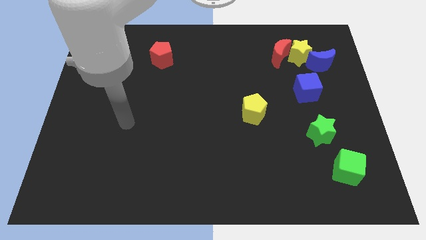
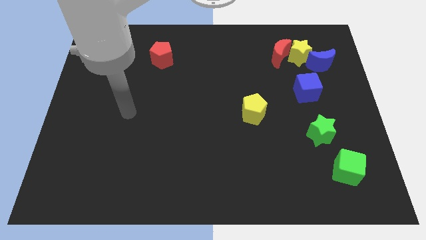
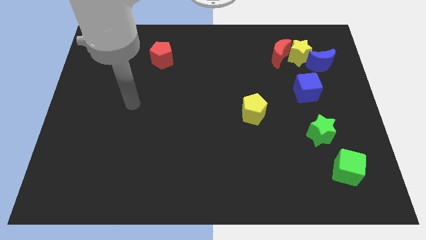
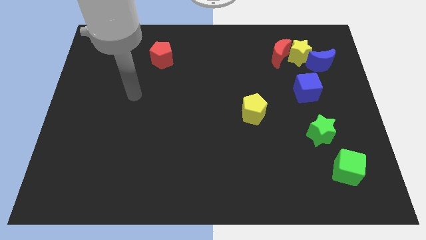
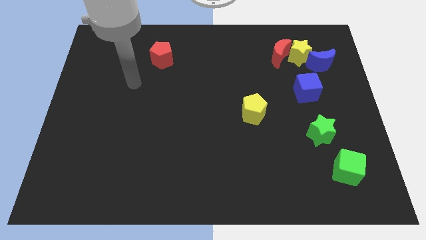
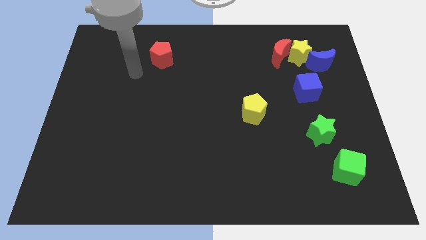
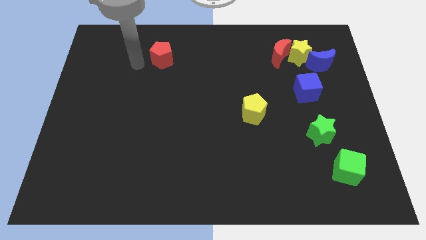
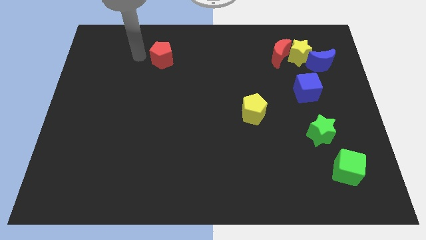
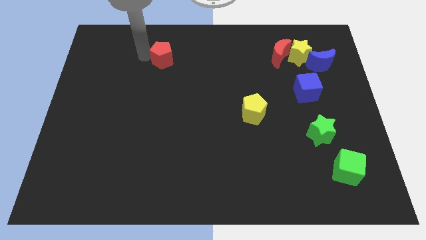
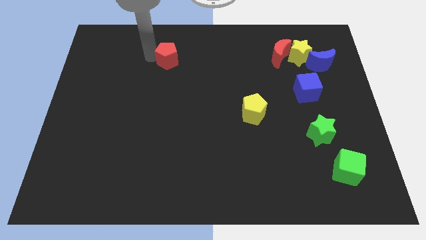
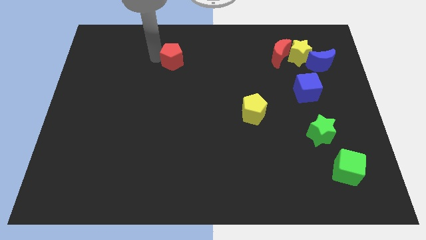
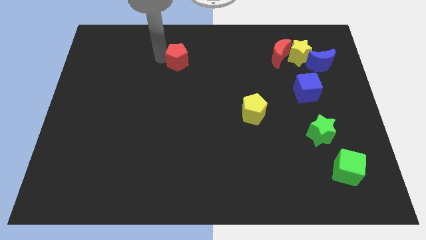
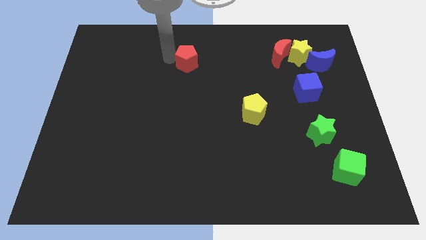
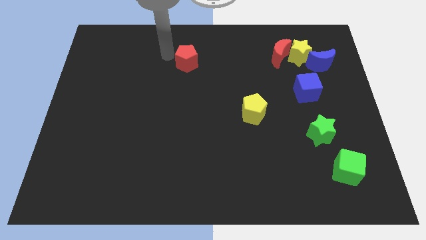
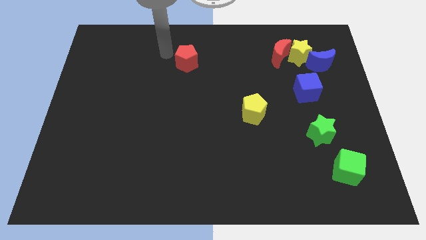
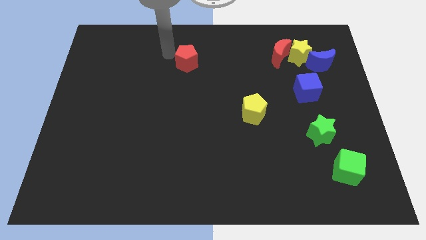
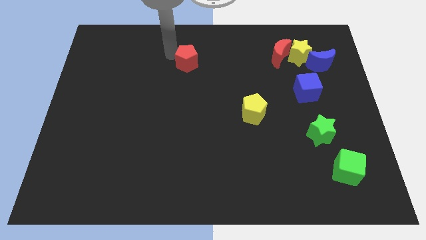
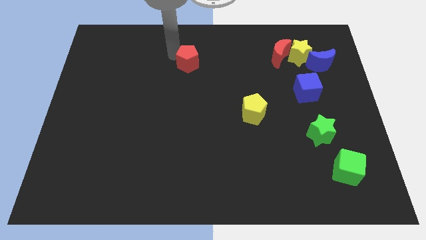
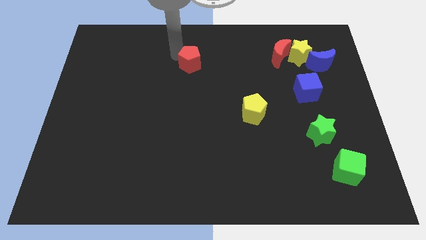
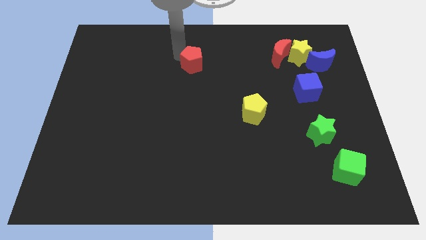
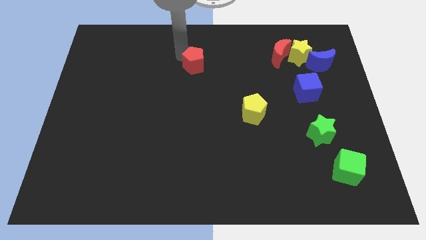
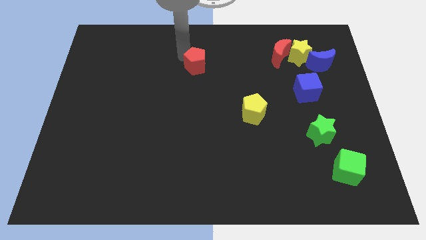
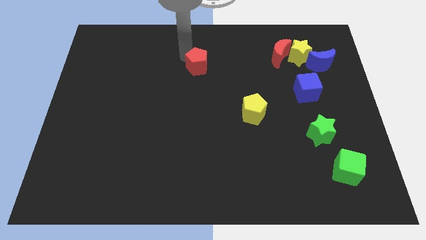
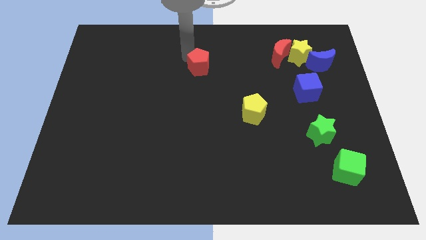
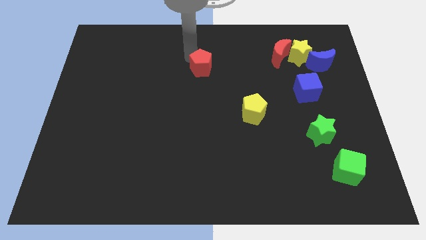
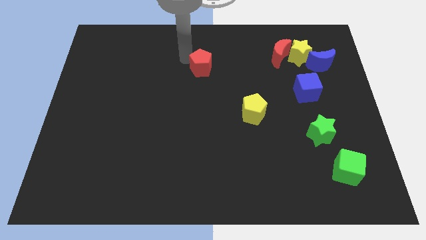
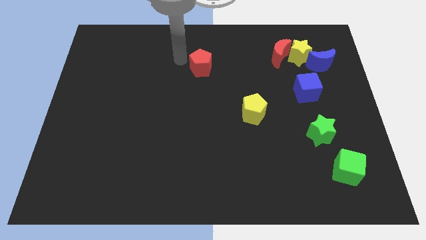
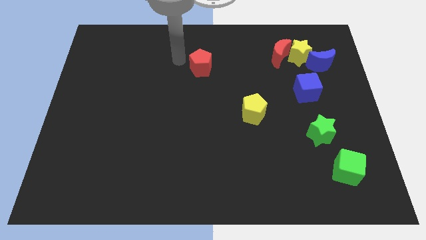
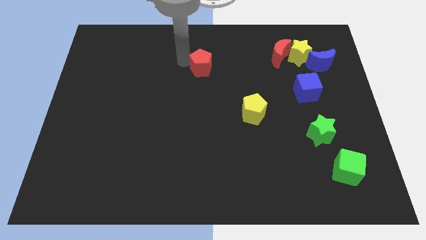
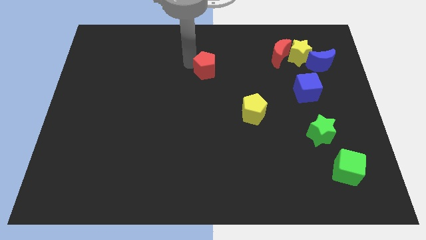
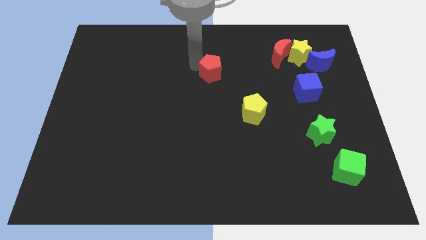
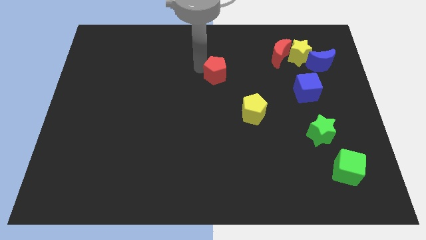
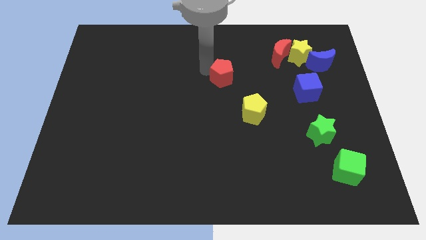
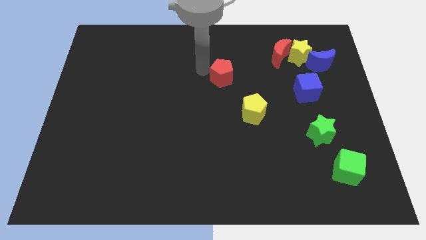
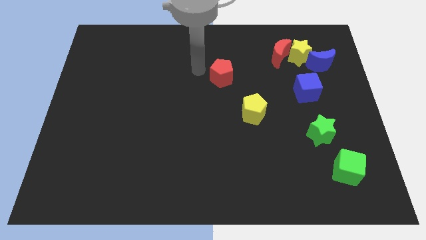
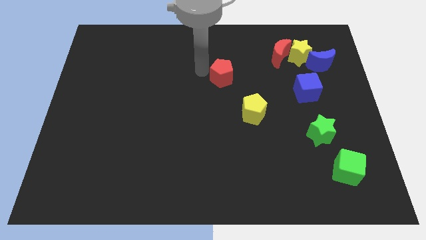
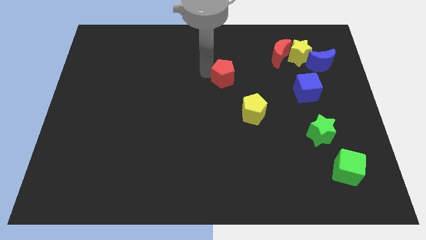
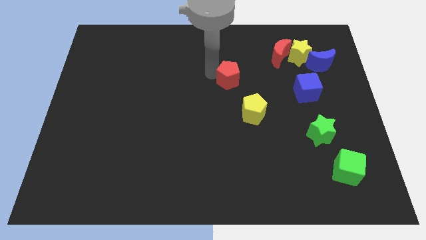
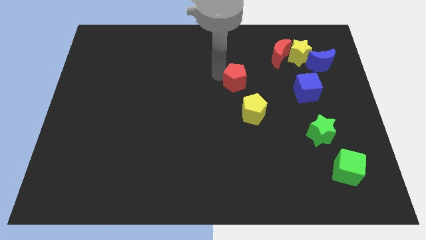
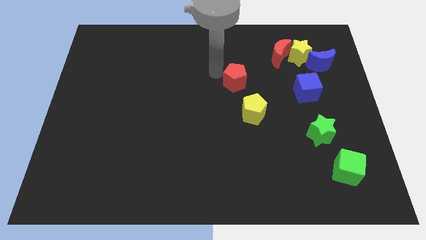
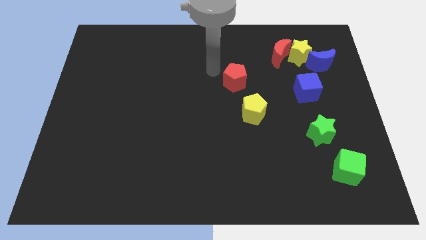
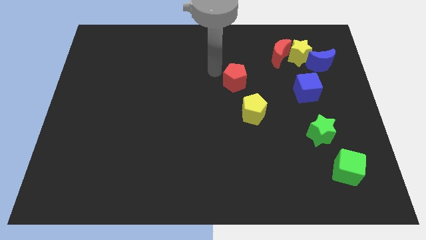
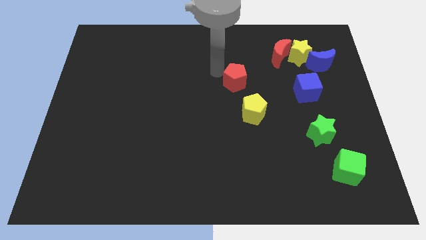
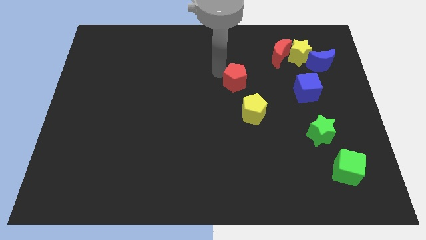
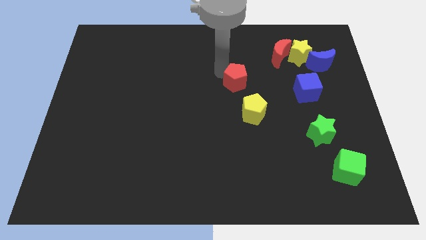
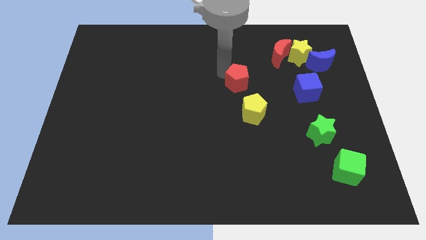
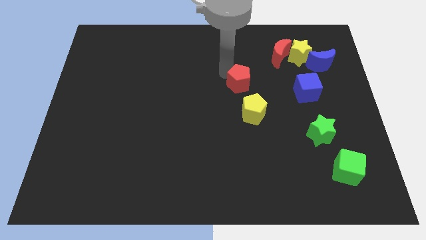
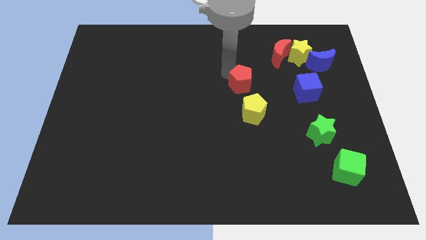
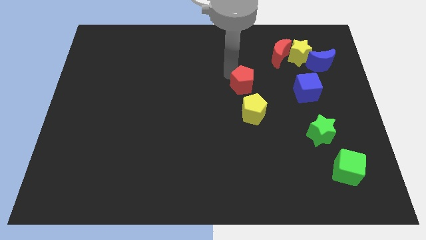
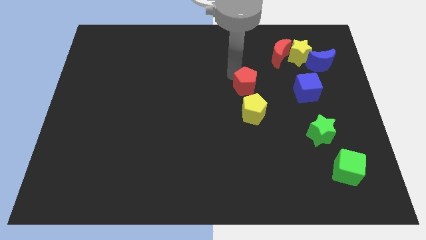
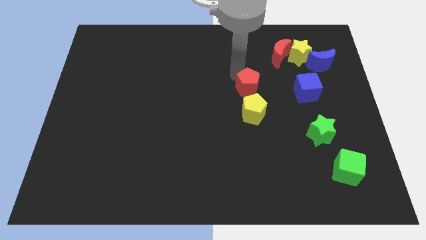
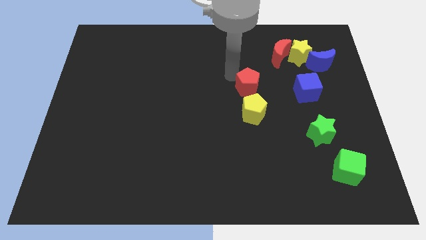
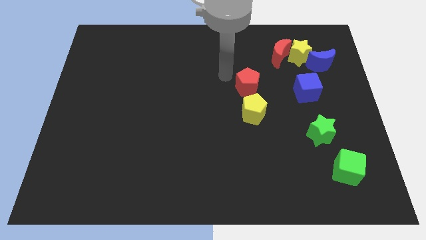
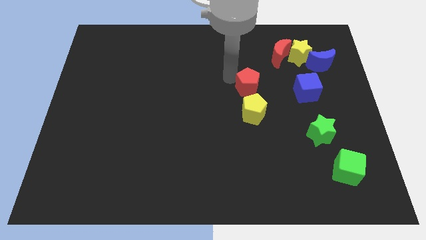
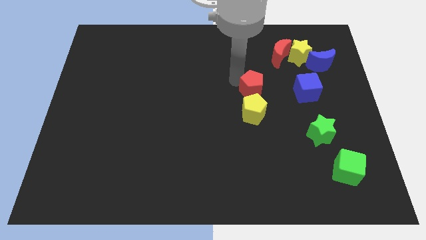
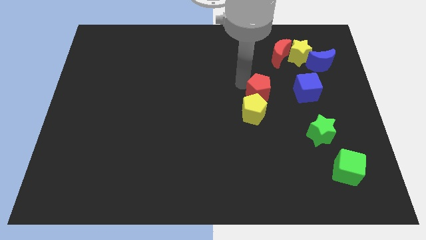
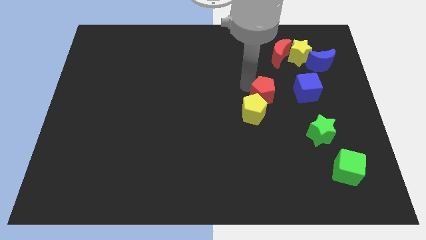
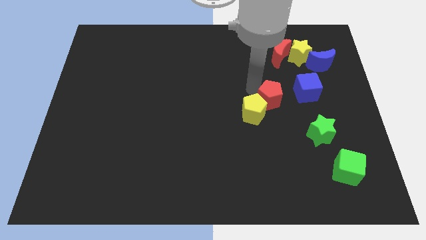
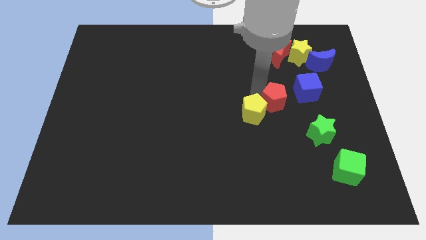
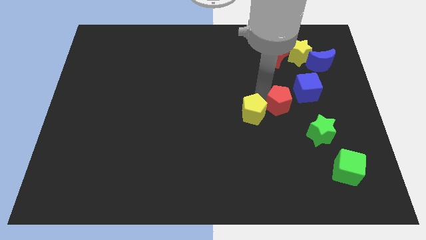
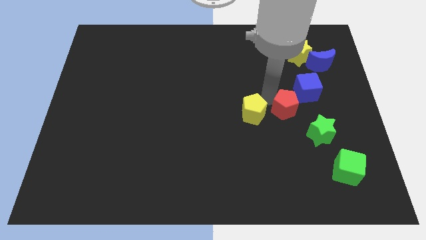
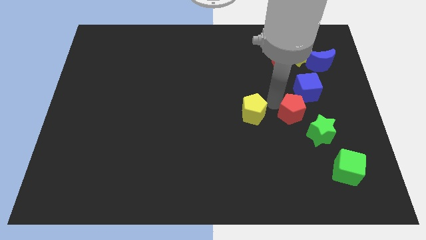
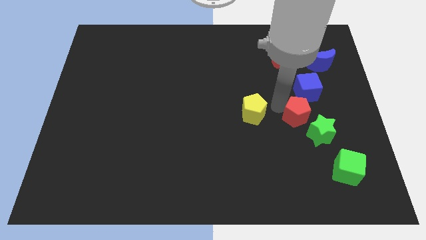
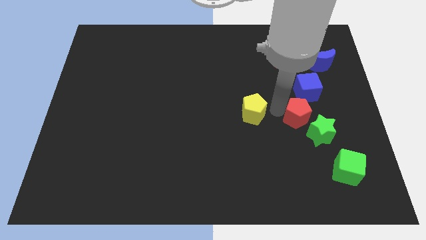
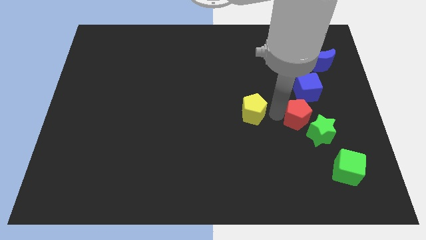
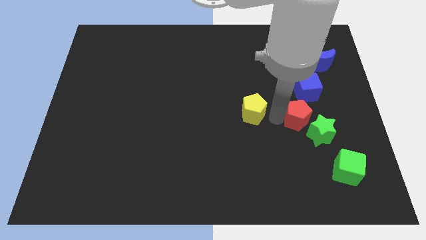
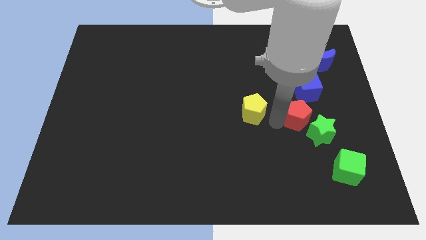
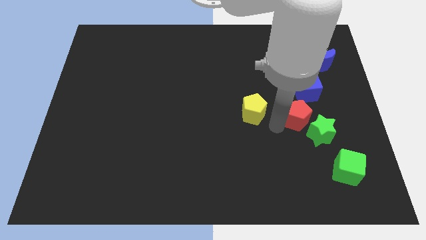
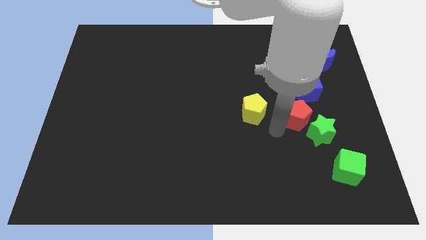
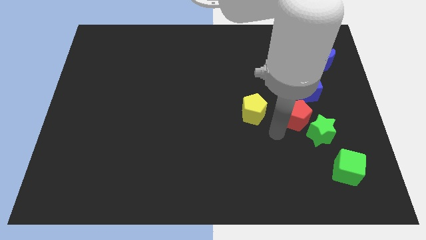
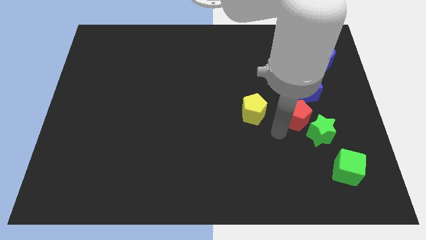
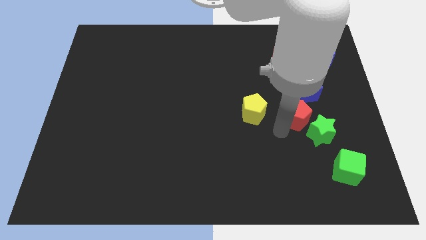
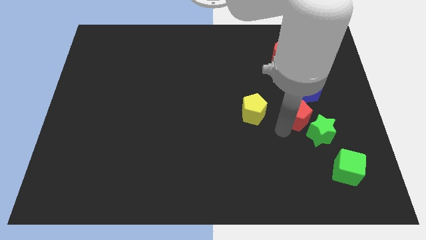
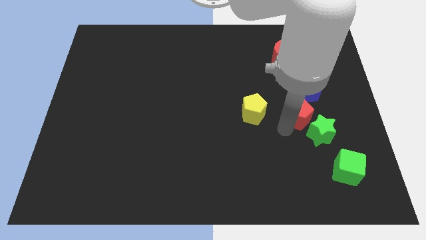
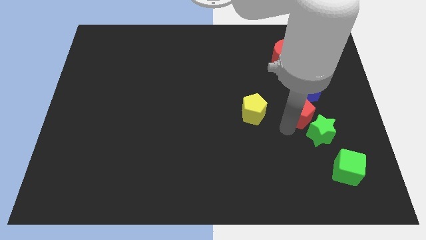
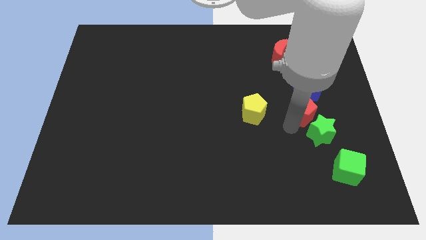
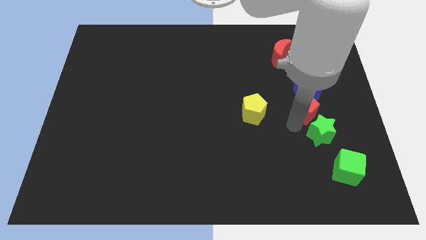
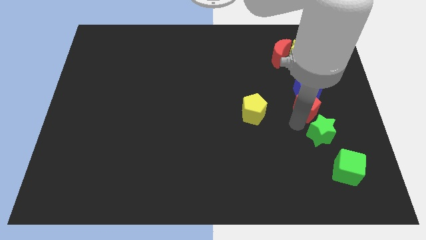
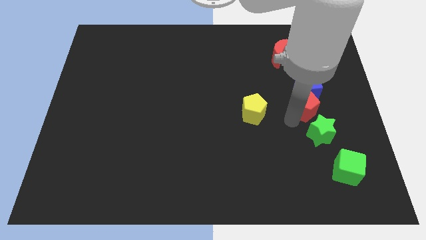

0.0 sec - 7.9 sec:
move the red pentagon to the bottom right of the blue cube
